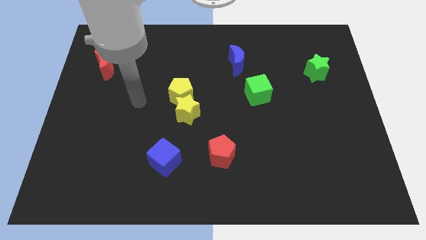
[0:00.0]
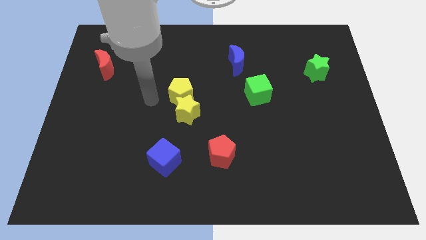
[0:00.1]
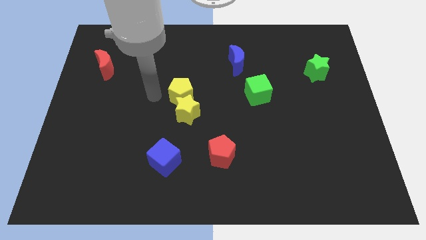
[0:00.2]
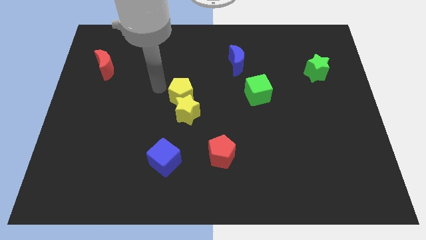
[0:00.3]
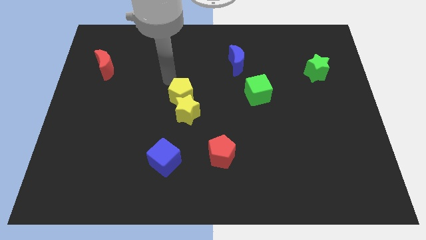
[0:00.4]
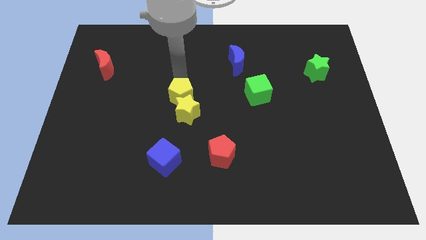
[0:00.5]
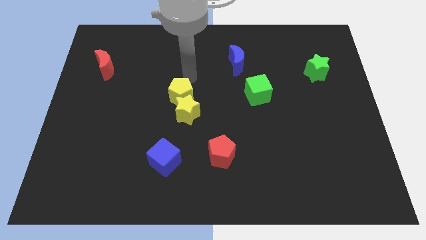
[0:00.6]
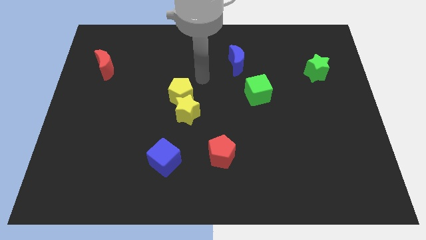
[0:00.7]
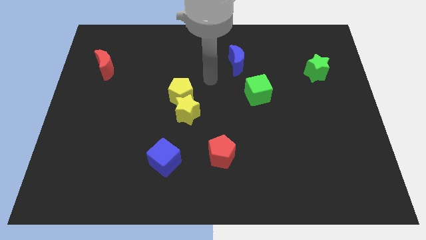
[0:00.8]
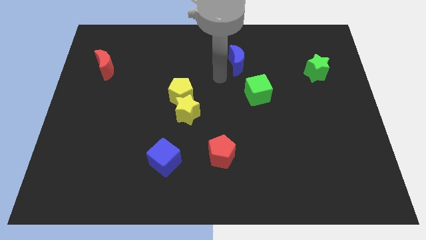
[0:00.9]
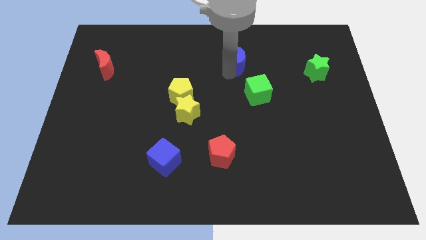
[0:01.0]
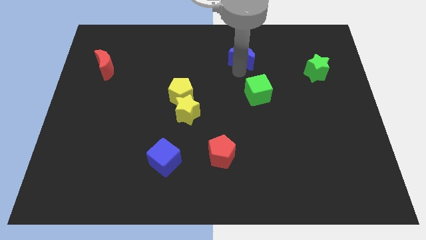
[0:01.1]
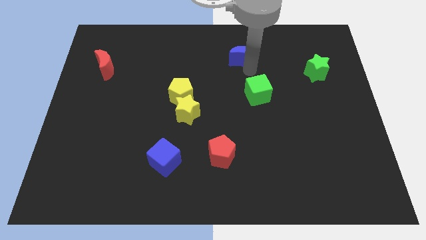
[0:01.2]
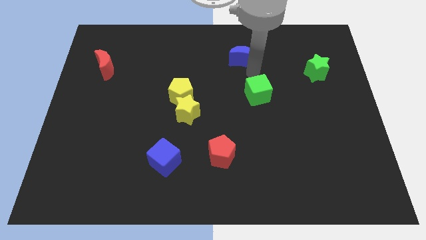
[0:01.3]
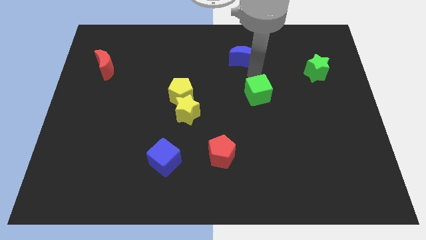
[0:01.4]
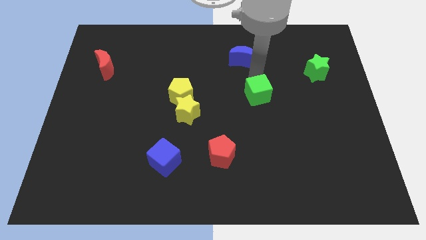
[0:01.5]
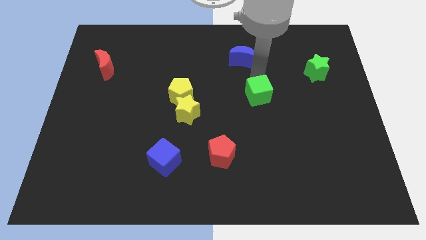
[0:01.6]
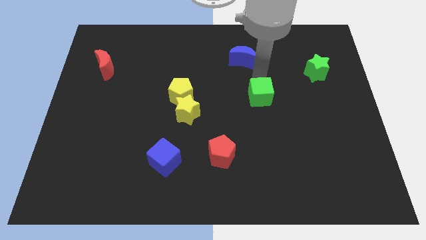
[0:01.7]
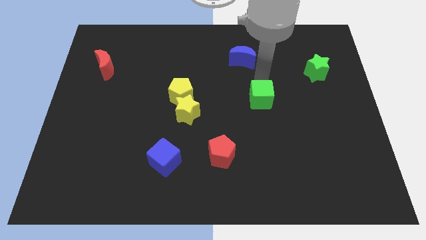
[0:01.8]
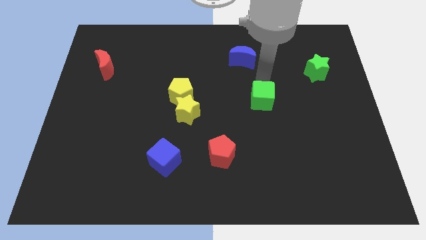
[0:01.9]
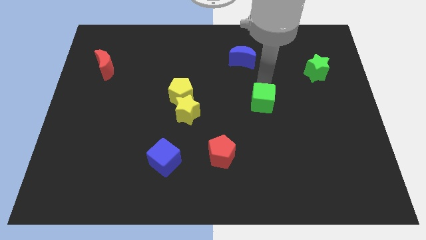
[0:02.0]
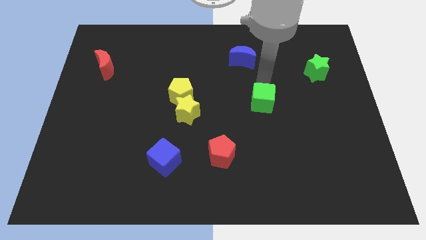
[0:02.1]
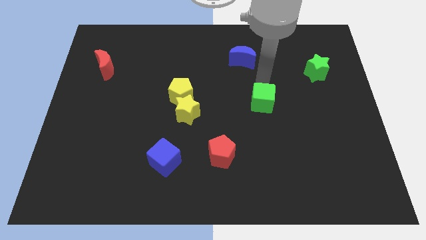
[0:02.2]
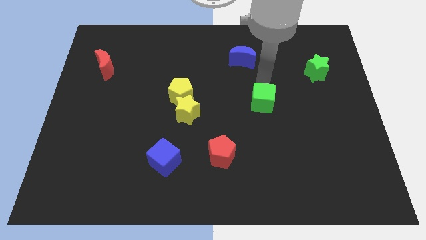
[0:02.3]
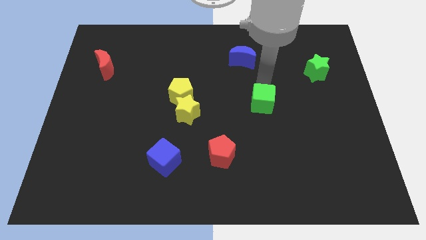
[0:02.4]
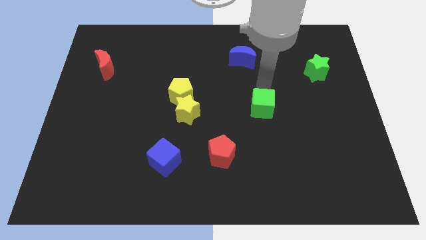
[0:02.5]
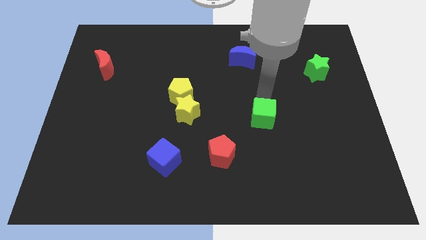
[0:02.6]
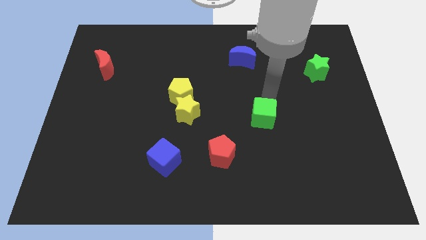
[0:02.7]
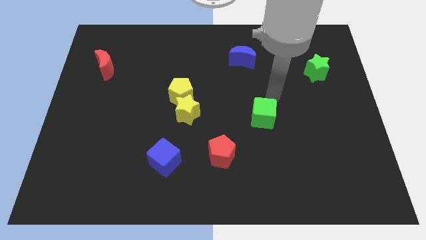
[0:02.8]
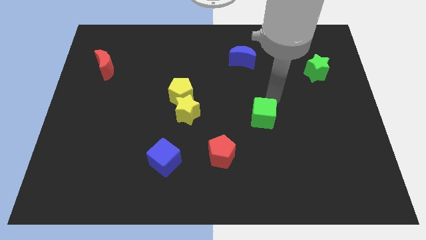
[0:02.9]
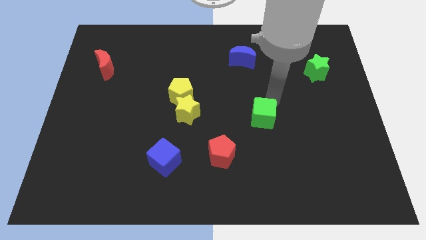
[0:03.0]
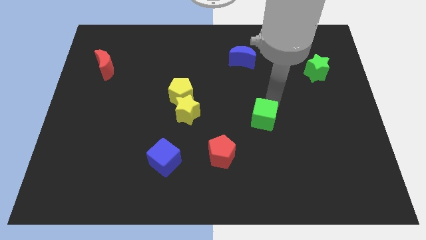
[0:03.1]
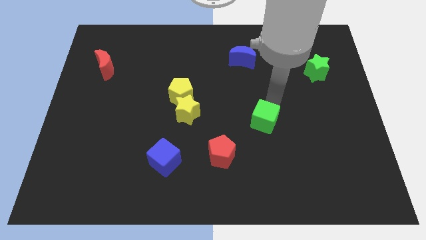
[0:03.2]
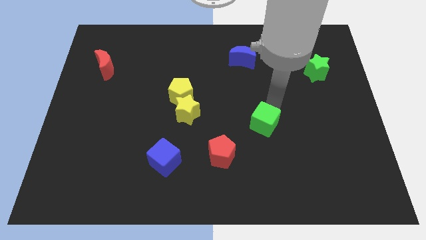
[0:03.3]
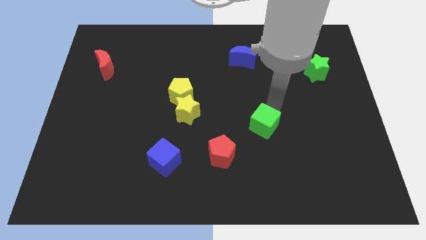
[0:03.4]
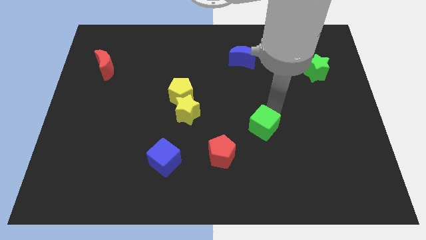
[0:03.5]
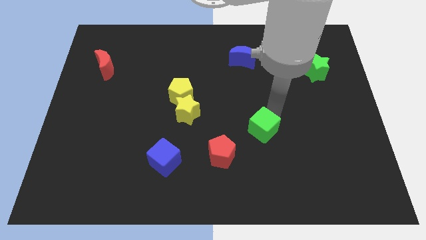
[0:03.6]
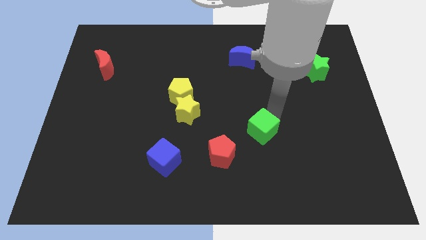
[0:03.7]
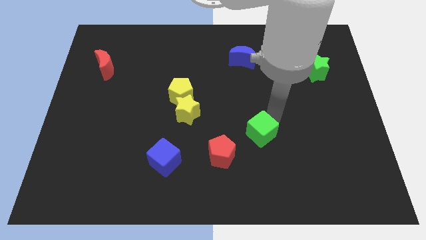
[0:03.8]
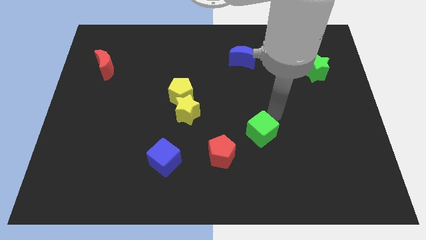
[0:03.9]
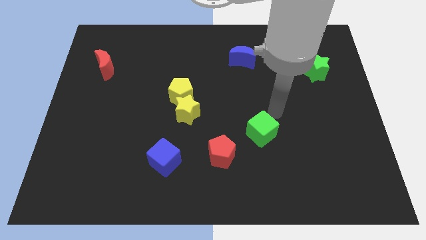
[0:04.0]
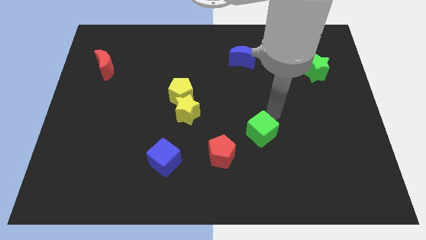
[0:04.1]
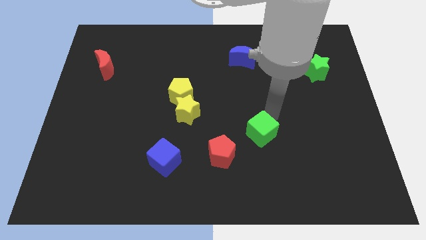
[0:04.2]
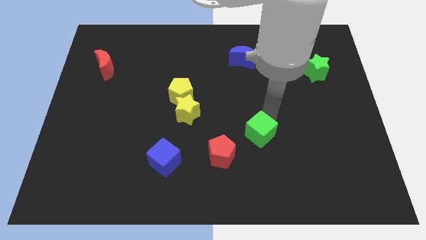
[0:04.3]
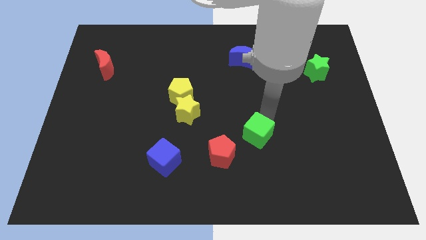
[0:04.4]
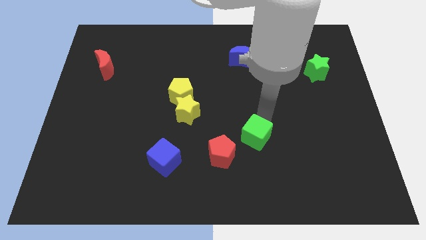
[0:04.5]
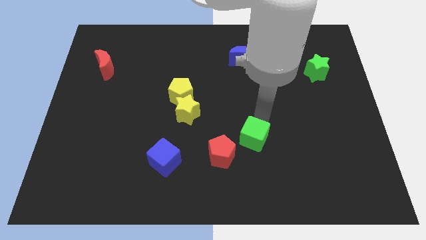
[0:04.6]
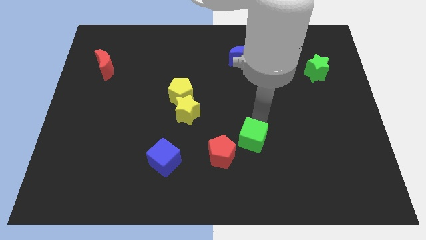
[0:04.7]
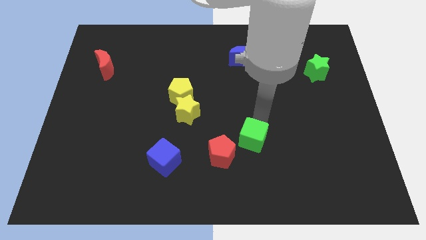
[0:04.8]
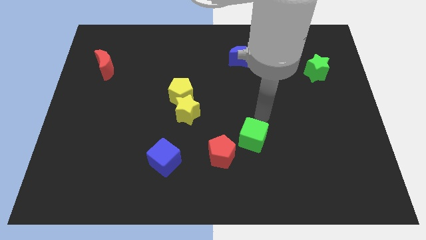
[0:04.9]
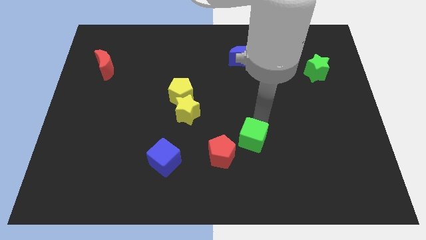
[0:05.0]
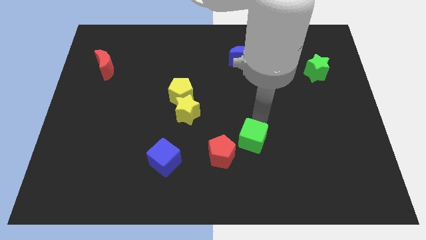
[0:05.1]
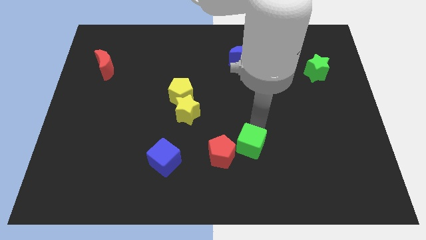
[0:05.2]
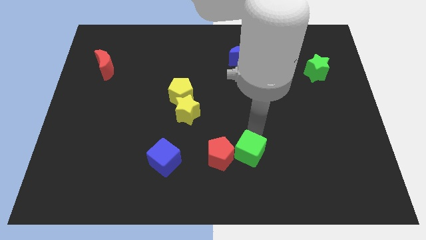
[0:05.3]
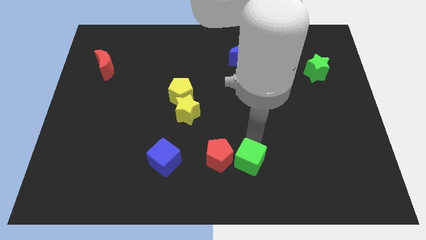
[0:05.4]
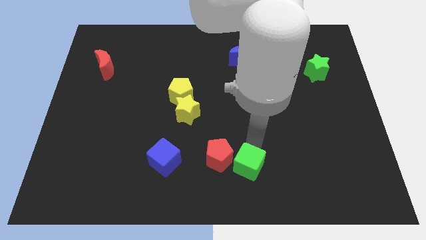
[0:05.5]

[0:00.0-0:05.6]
slide the green cube to the bottom
